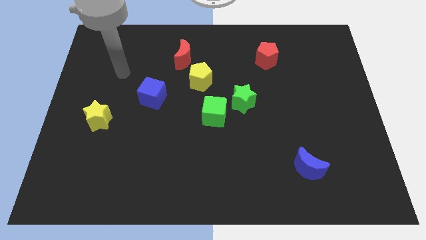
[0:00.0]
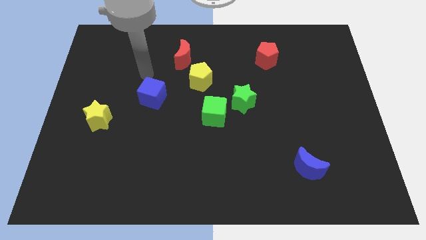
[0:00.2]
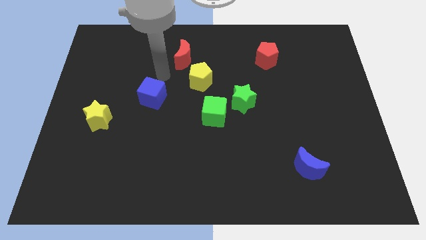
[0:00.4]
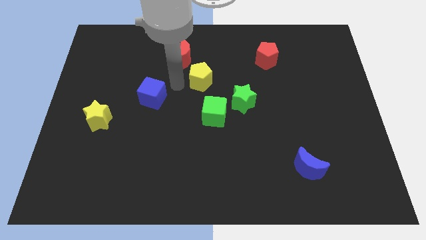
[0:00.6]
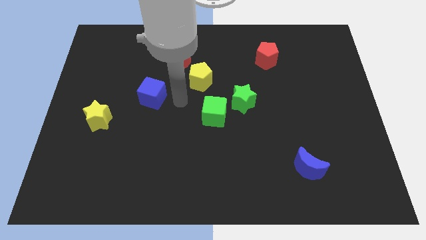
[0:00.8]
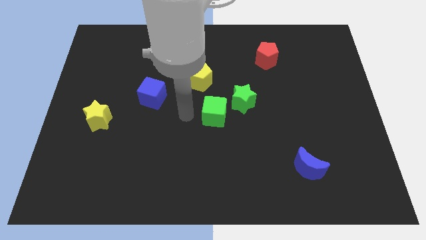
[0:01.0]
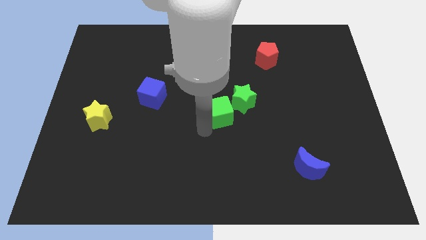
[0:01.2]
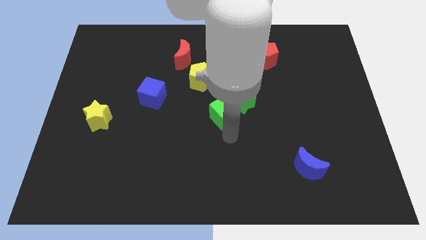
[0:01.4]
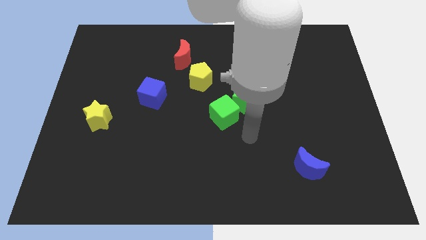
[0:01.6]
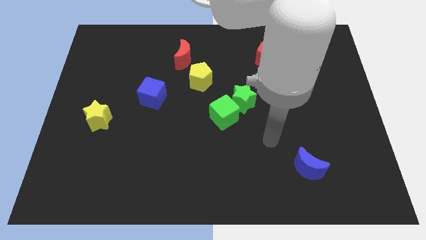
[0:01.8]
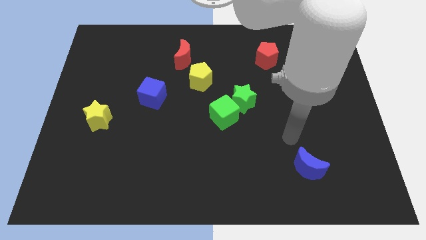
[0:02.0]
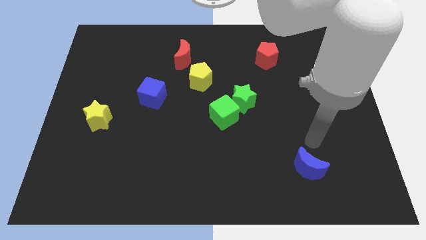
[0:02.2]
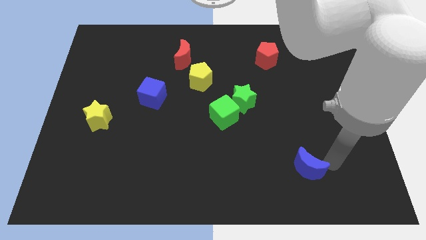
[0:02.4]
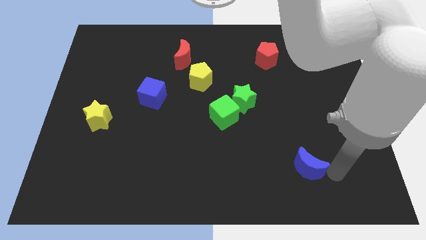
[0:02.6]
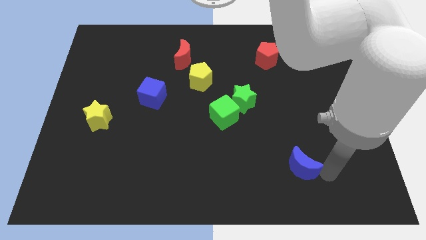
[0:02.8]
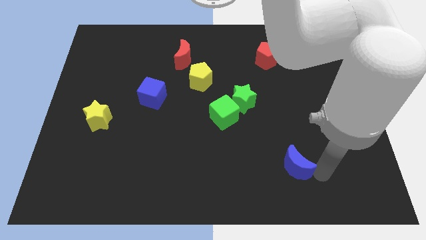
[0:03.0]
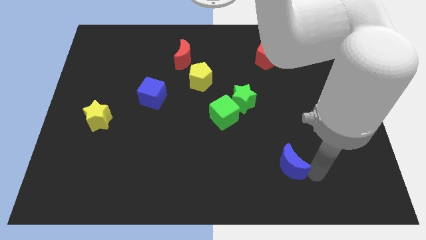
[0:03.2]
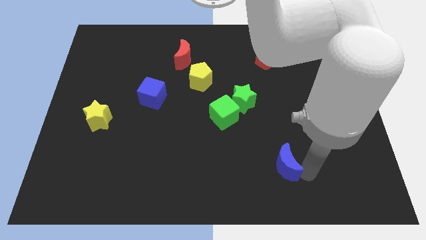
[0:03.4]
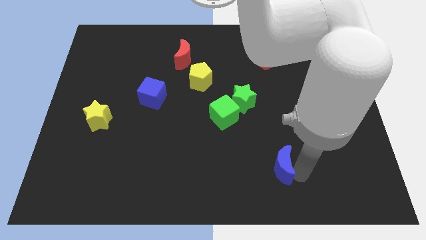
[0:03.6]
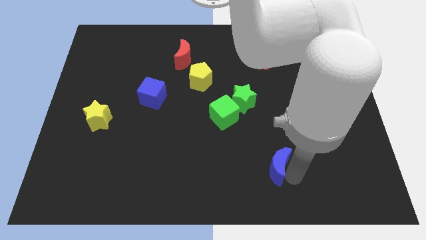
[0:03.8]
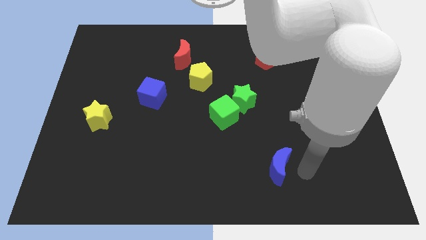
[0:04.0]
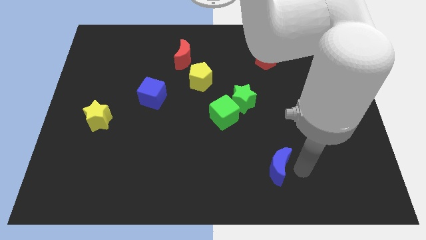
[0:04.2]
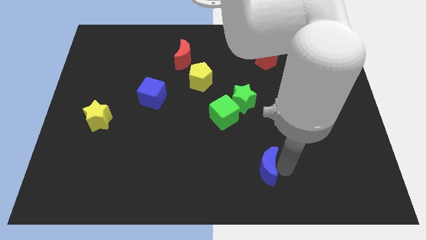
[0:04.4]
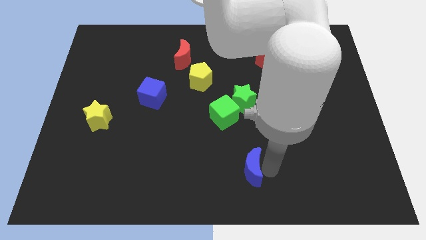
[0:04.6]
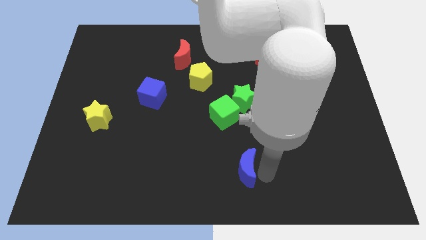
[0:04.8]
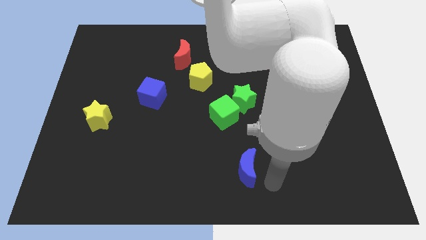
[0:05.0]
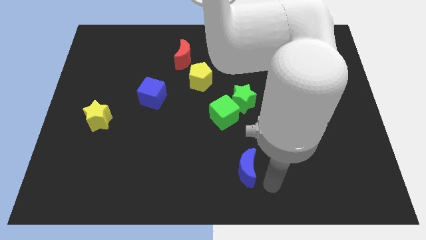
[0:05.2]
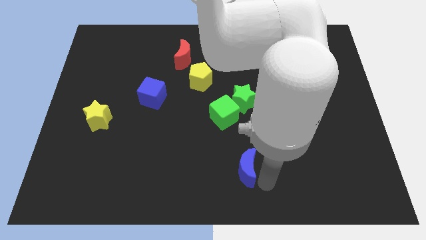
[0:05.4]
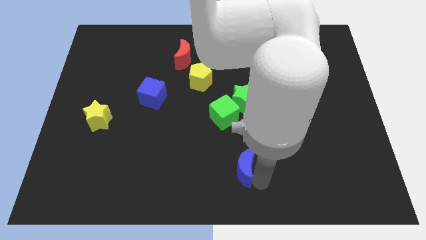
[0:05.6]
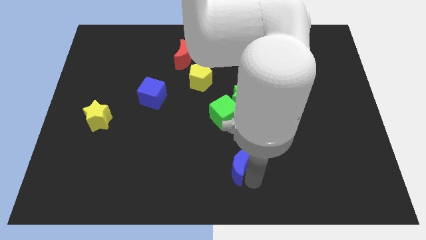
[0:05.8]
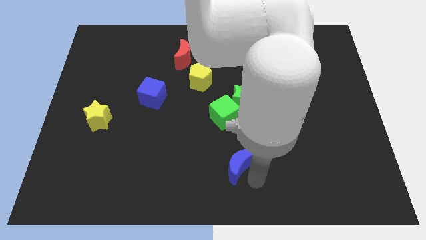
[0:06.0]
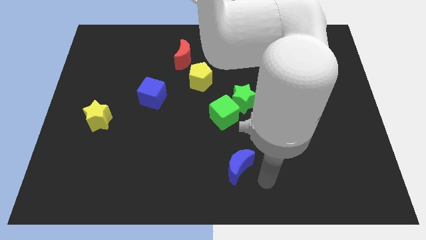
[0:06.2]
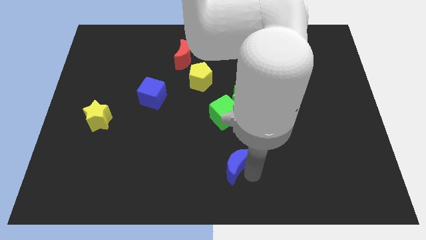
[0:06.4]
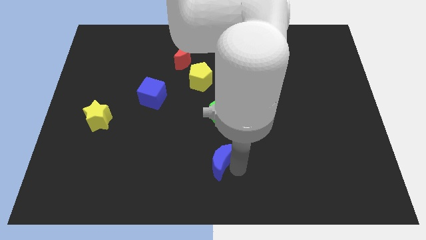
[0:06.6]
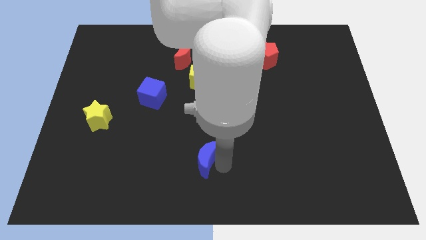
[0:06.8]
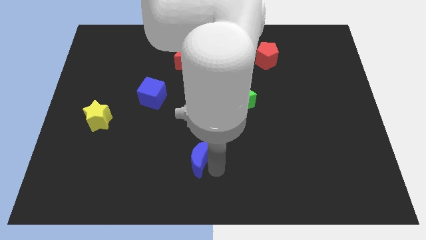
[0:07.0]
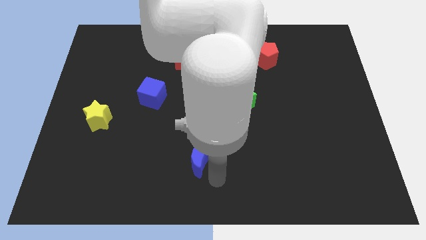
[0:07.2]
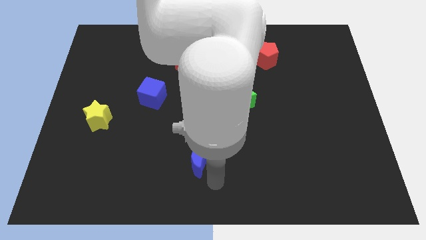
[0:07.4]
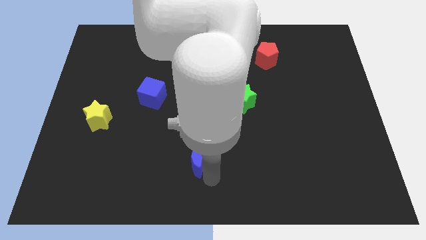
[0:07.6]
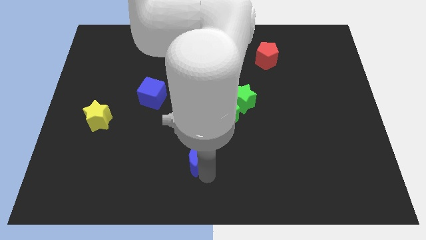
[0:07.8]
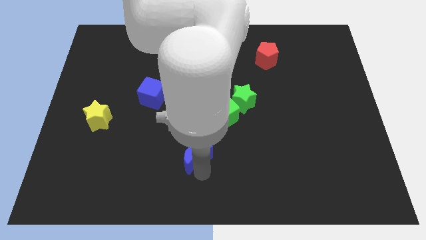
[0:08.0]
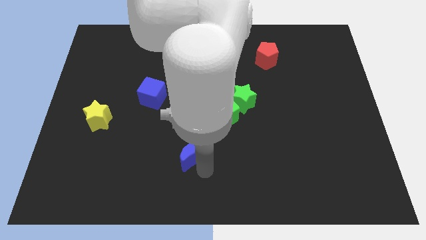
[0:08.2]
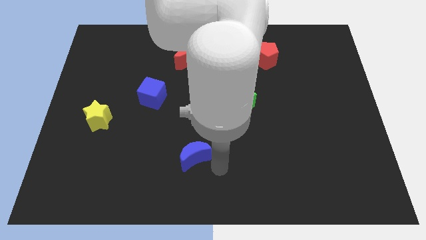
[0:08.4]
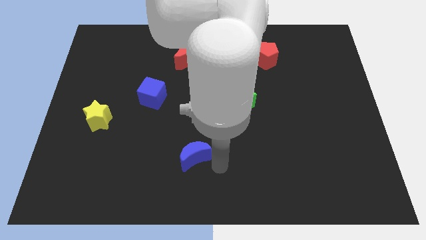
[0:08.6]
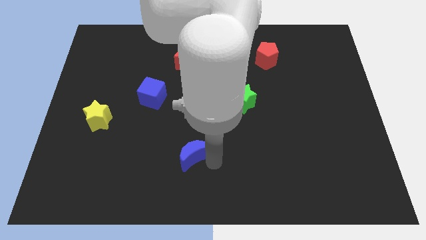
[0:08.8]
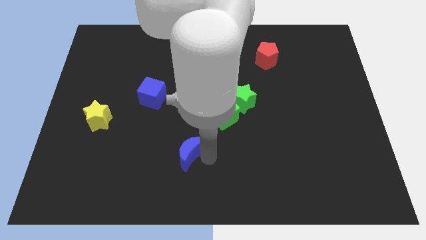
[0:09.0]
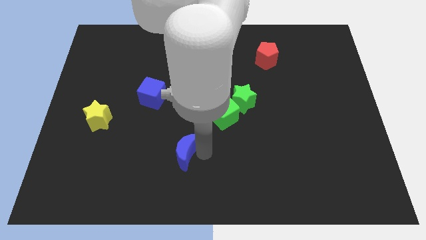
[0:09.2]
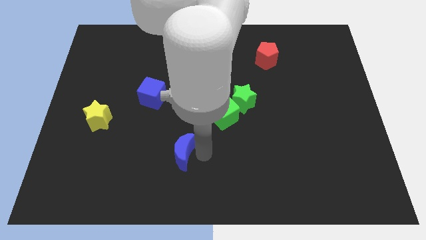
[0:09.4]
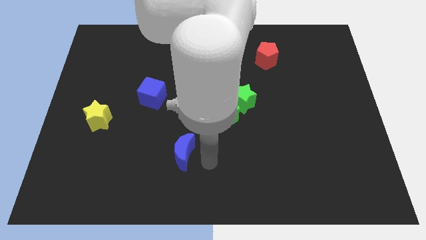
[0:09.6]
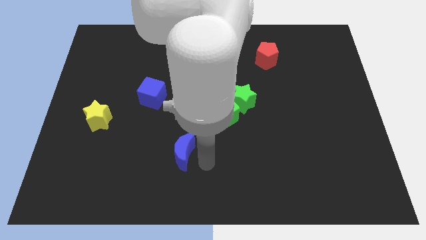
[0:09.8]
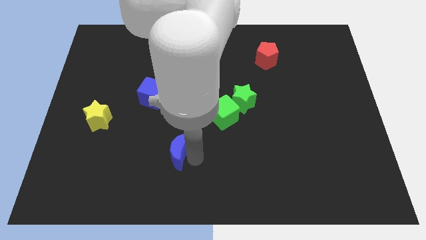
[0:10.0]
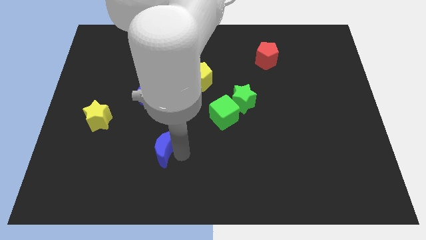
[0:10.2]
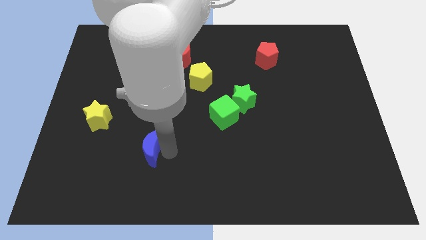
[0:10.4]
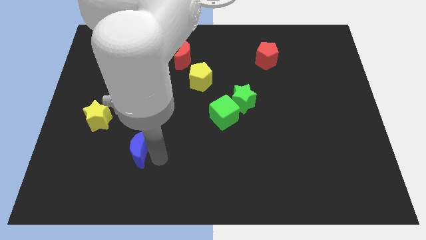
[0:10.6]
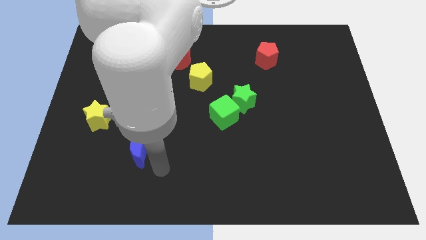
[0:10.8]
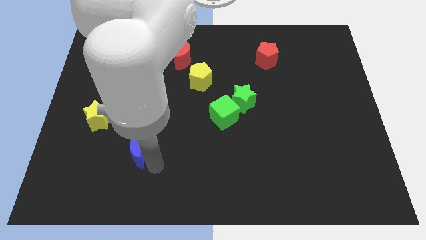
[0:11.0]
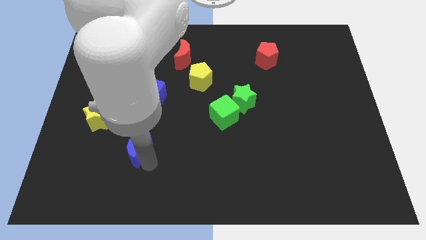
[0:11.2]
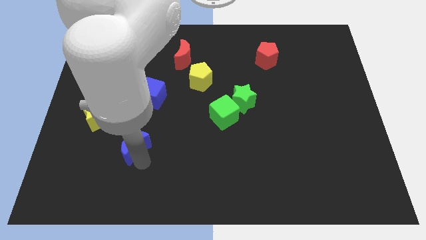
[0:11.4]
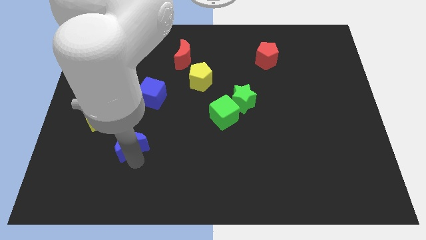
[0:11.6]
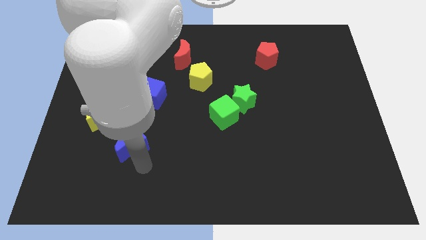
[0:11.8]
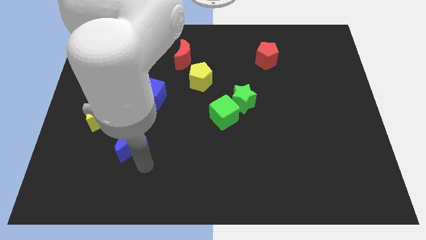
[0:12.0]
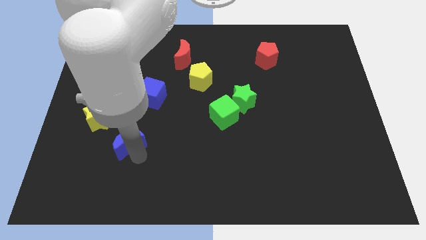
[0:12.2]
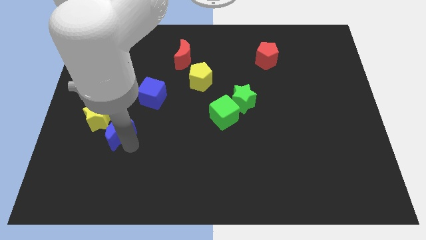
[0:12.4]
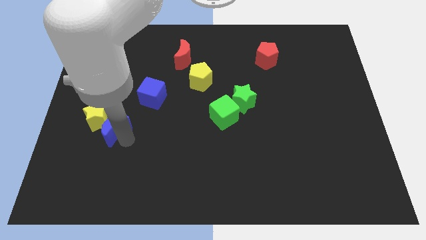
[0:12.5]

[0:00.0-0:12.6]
slide the blue moon to the yellow star

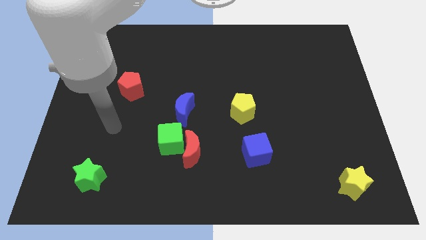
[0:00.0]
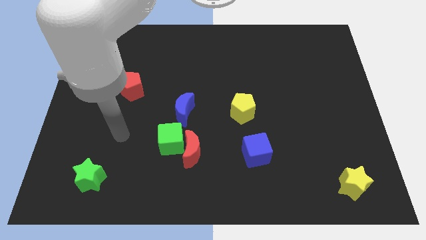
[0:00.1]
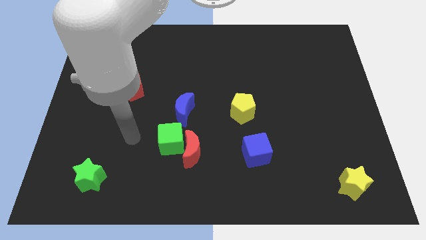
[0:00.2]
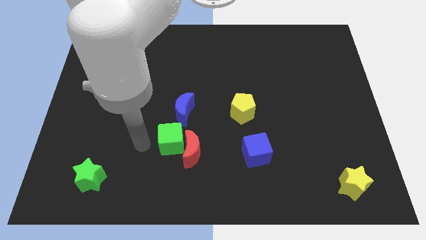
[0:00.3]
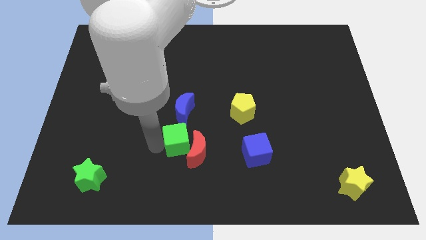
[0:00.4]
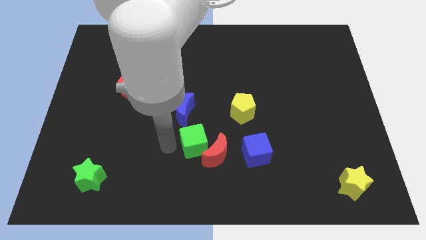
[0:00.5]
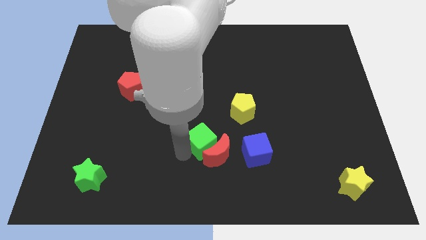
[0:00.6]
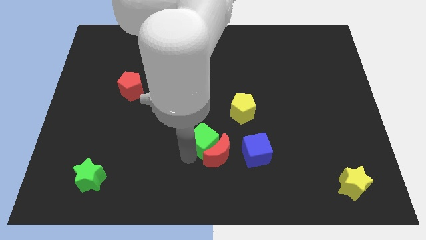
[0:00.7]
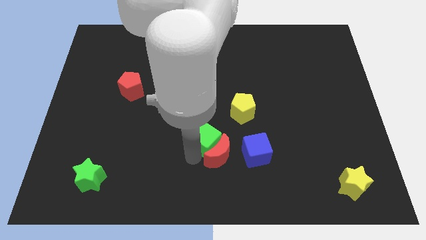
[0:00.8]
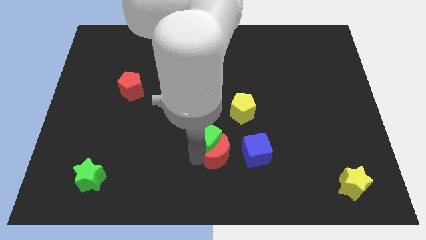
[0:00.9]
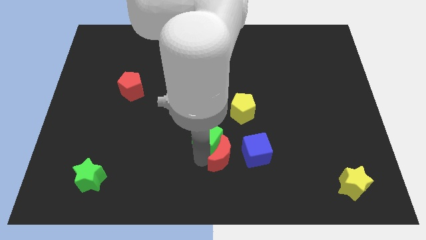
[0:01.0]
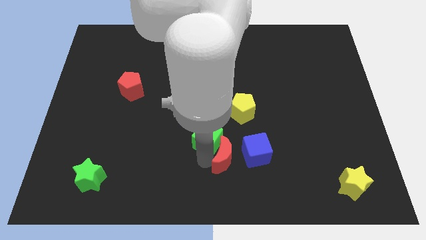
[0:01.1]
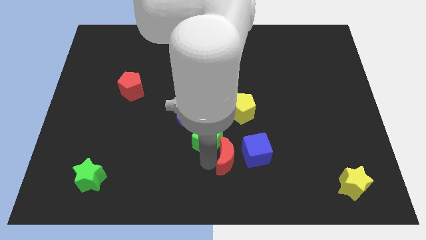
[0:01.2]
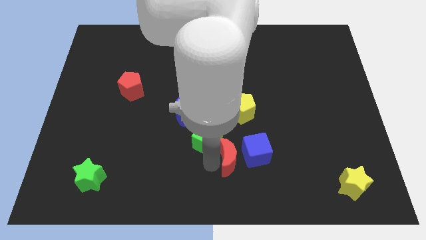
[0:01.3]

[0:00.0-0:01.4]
move the red moon next to the blue cube
